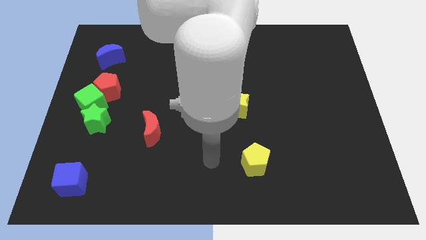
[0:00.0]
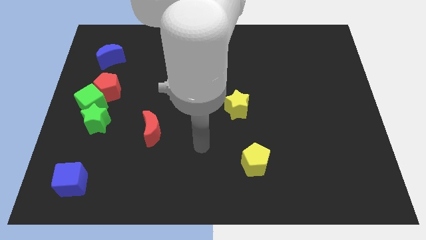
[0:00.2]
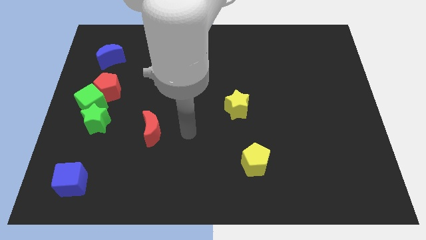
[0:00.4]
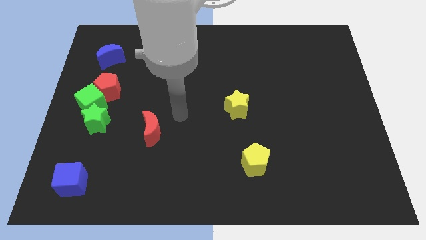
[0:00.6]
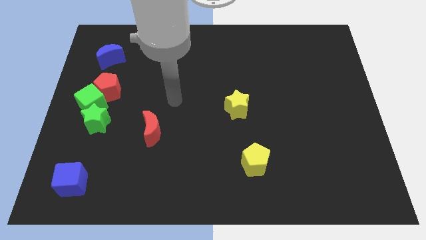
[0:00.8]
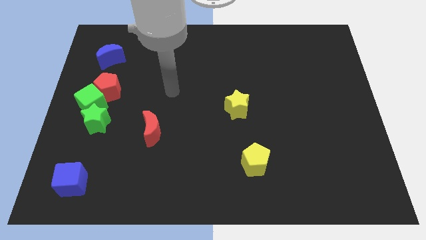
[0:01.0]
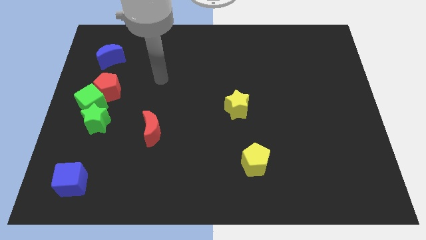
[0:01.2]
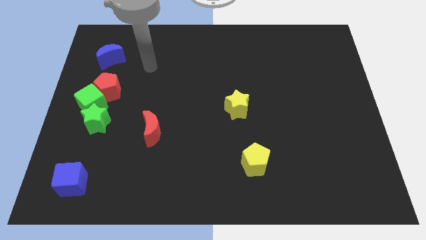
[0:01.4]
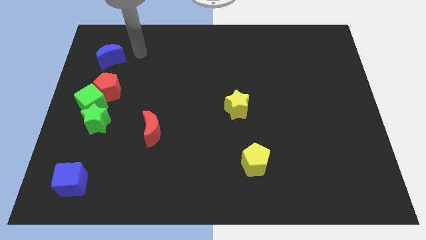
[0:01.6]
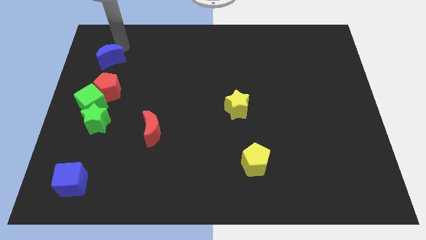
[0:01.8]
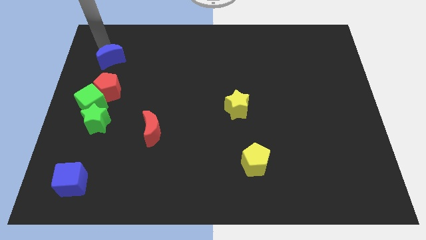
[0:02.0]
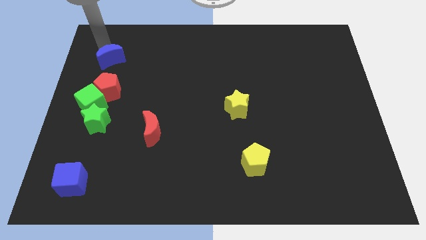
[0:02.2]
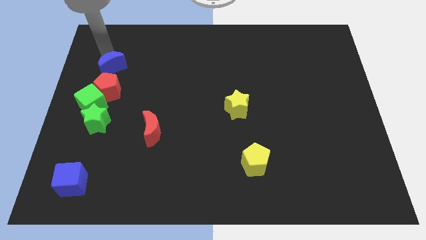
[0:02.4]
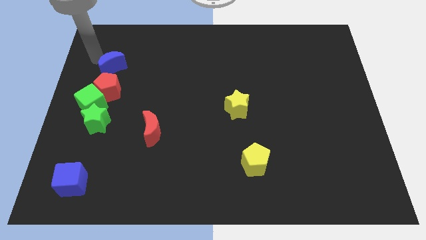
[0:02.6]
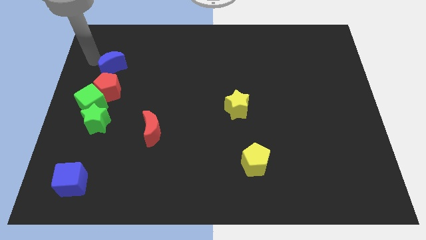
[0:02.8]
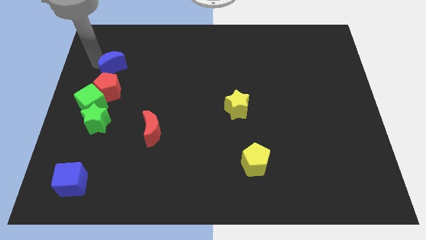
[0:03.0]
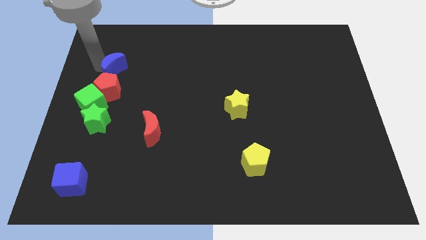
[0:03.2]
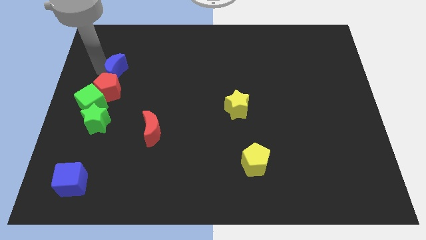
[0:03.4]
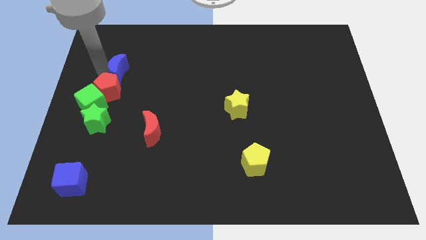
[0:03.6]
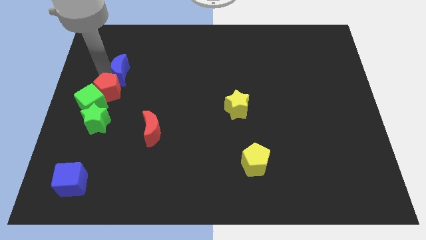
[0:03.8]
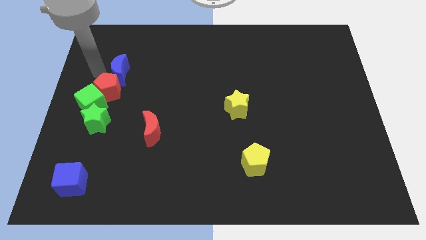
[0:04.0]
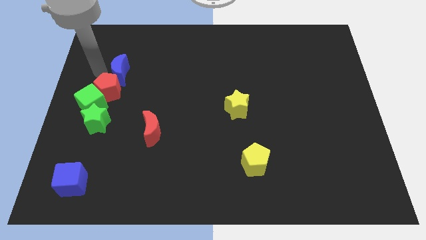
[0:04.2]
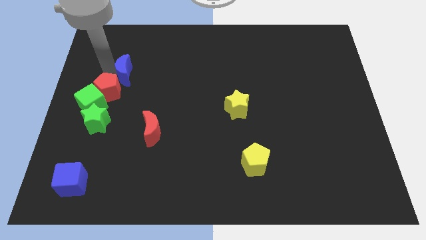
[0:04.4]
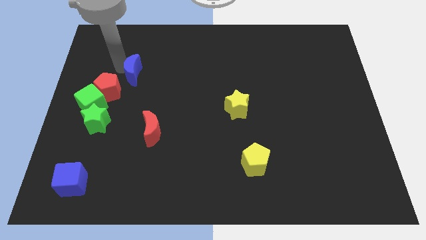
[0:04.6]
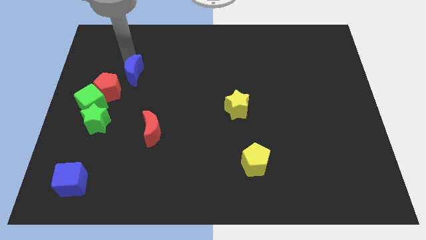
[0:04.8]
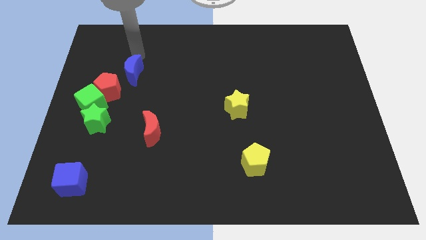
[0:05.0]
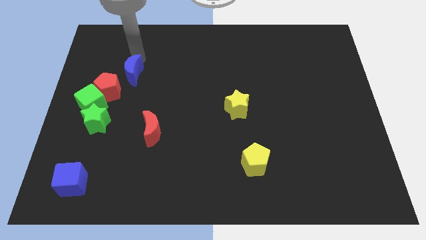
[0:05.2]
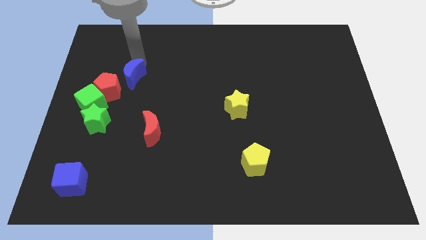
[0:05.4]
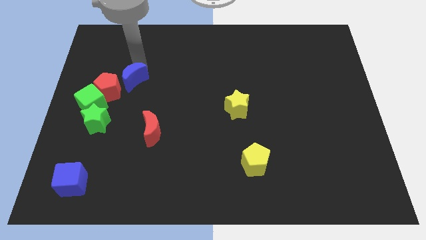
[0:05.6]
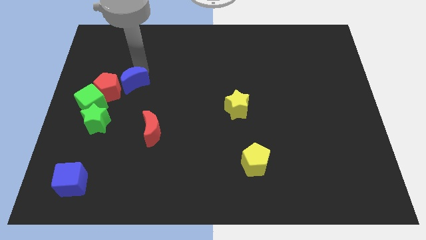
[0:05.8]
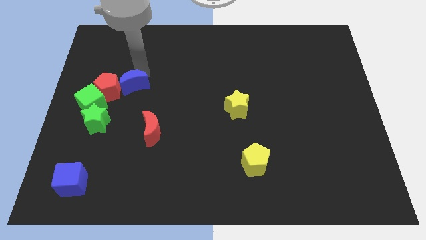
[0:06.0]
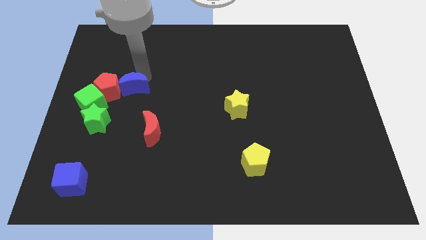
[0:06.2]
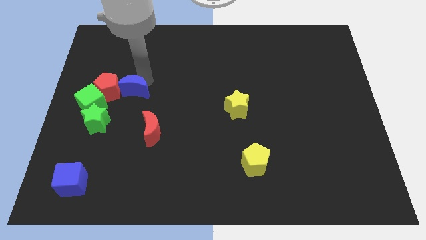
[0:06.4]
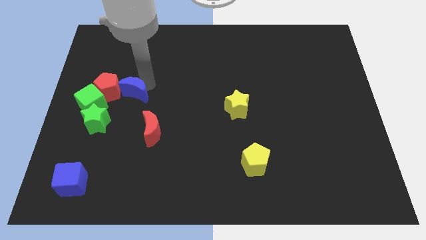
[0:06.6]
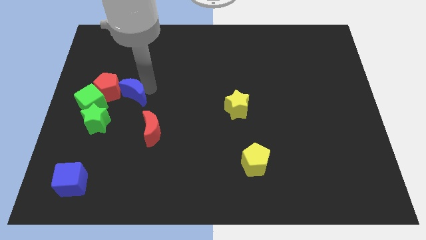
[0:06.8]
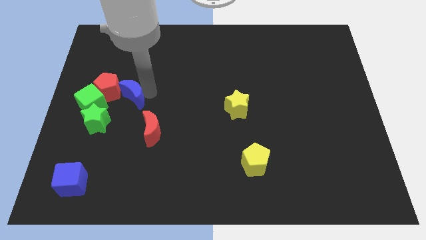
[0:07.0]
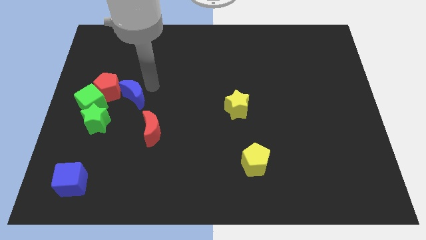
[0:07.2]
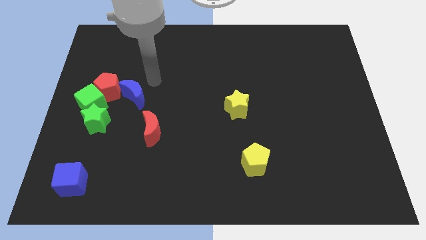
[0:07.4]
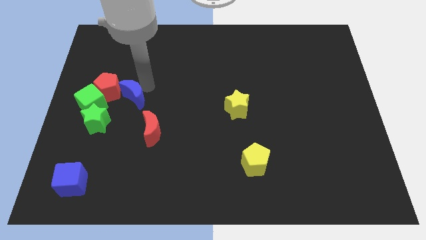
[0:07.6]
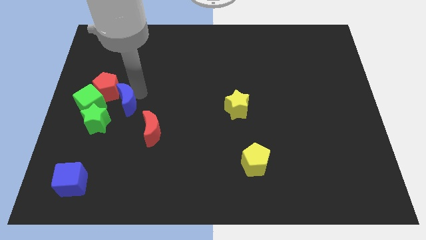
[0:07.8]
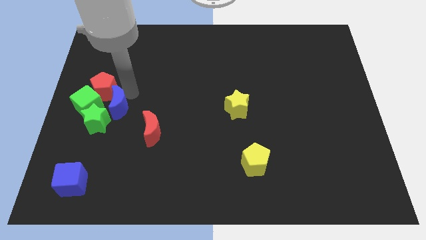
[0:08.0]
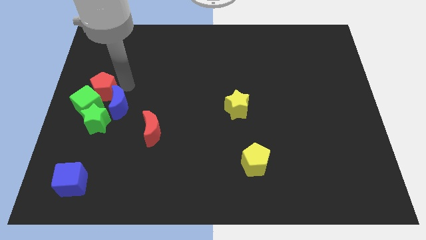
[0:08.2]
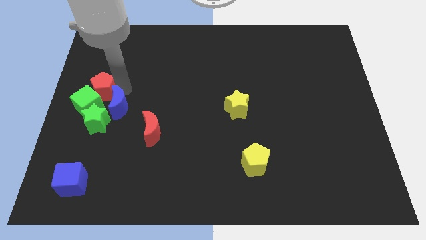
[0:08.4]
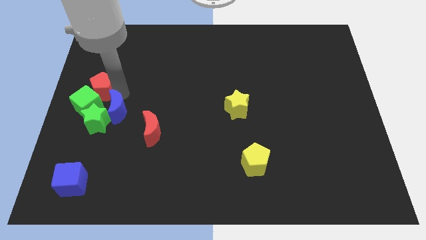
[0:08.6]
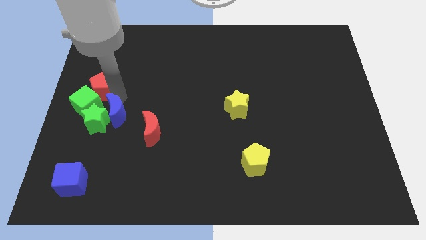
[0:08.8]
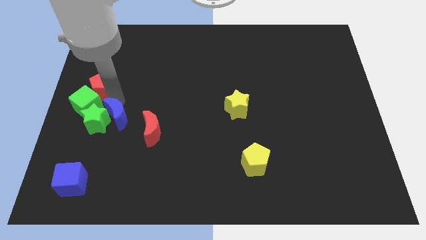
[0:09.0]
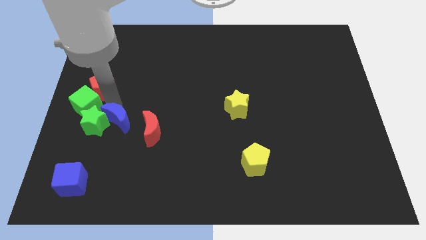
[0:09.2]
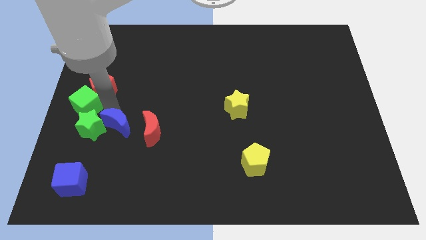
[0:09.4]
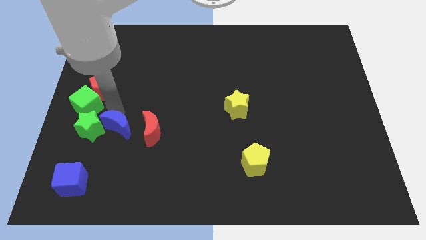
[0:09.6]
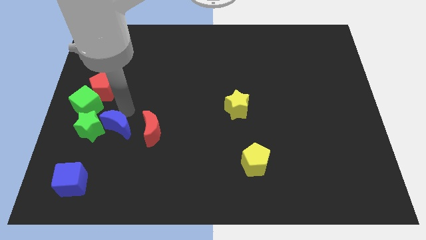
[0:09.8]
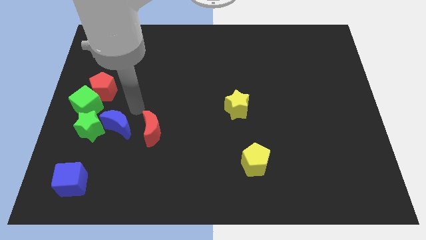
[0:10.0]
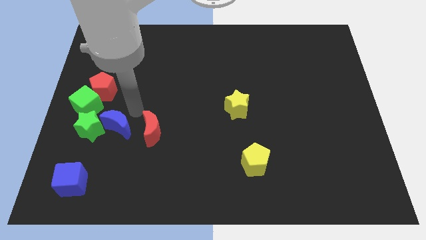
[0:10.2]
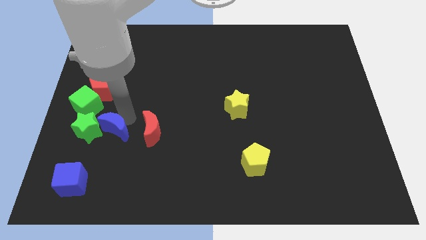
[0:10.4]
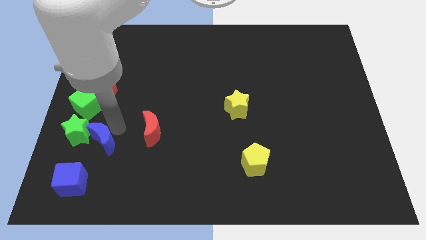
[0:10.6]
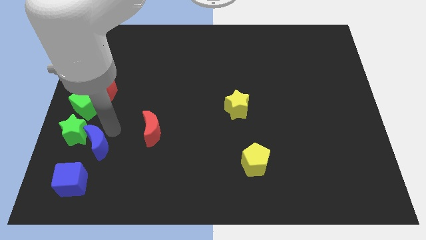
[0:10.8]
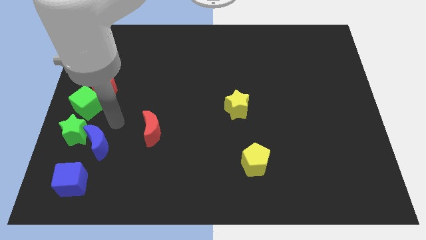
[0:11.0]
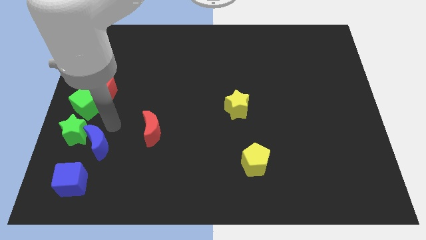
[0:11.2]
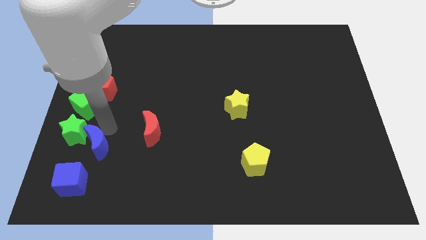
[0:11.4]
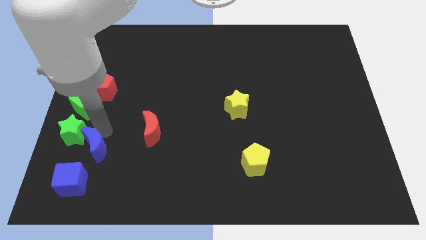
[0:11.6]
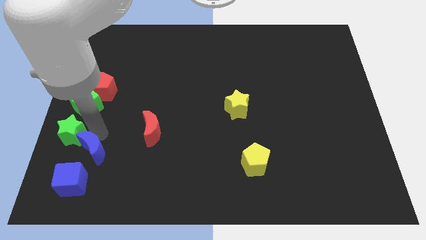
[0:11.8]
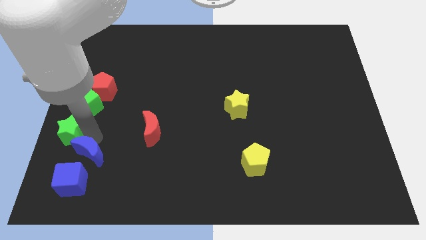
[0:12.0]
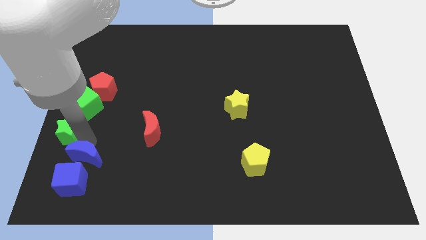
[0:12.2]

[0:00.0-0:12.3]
slide the blue moon towards the blue cube

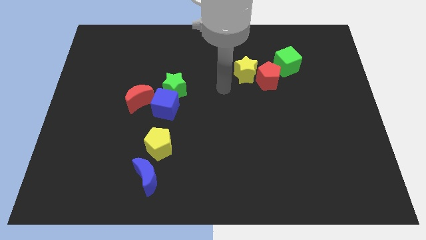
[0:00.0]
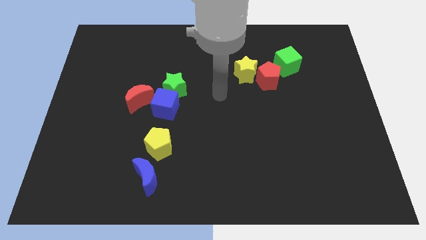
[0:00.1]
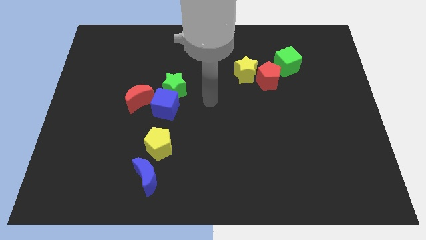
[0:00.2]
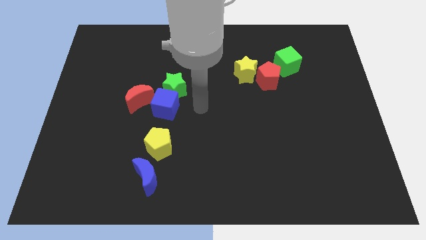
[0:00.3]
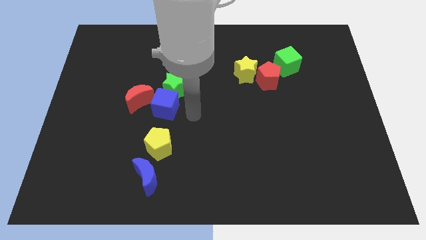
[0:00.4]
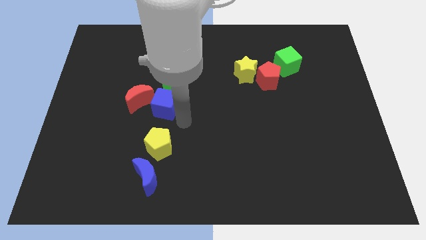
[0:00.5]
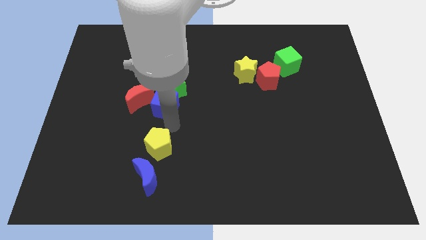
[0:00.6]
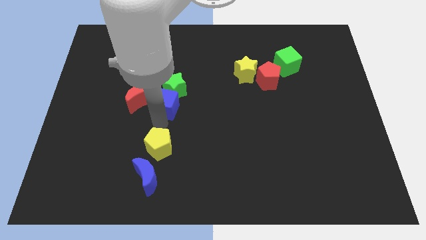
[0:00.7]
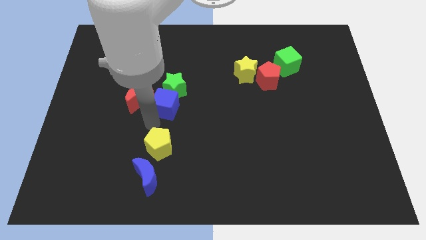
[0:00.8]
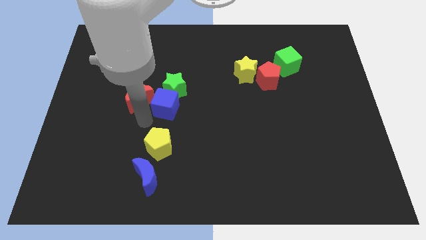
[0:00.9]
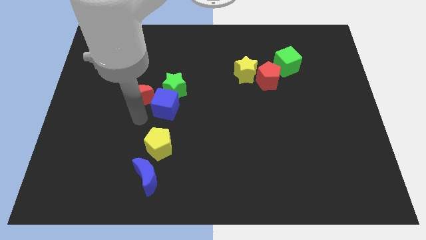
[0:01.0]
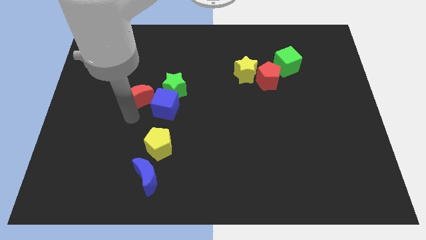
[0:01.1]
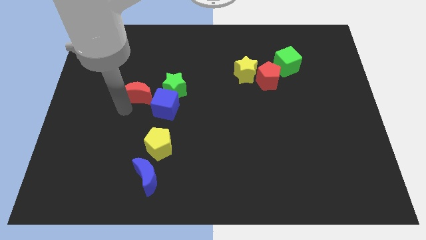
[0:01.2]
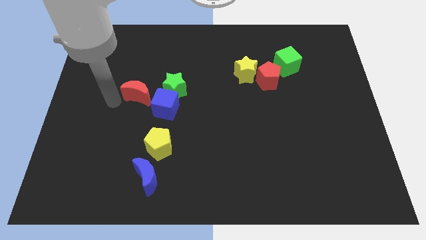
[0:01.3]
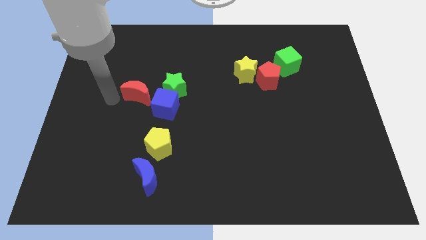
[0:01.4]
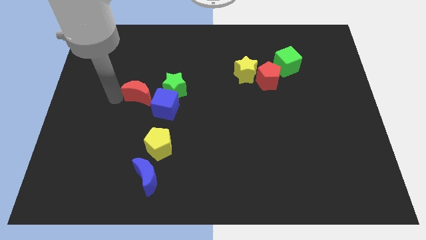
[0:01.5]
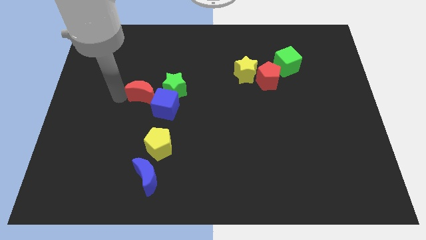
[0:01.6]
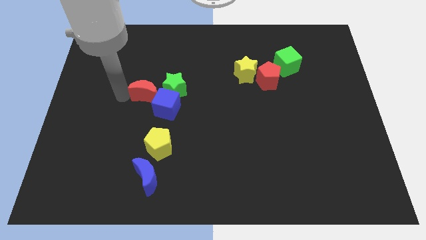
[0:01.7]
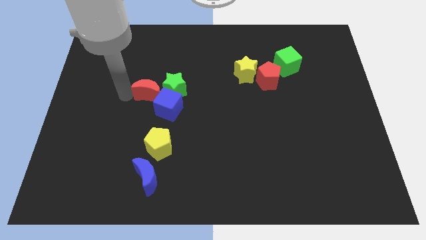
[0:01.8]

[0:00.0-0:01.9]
put the red moon next to the green star
